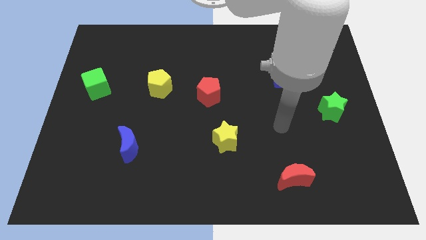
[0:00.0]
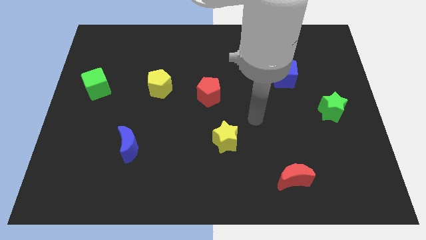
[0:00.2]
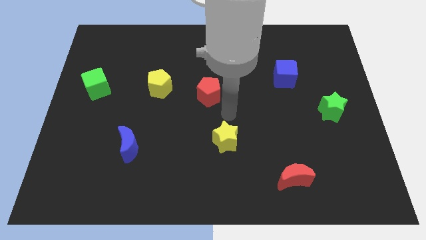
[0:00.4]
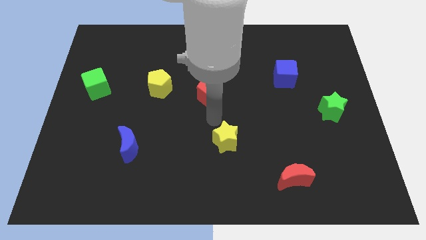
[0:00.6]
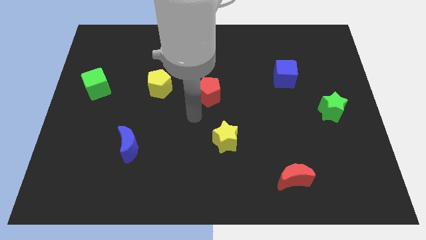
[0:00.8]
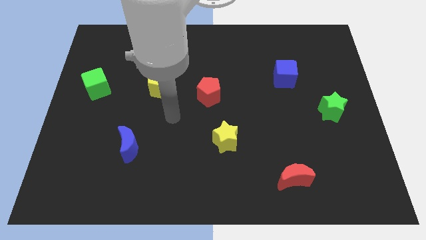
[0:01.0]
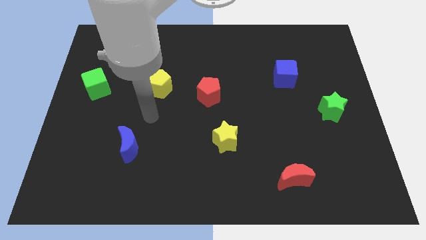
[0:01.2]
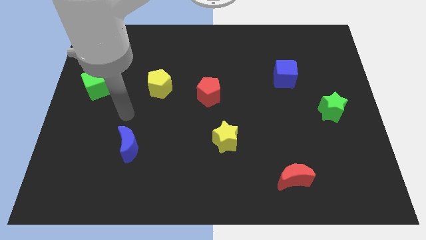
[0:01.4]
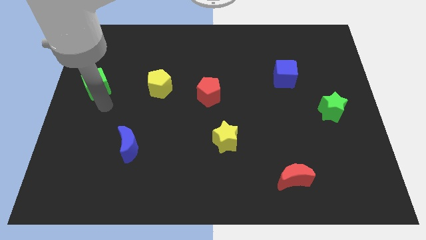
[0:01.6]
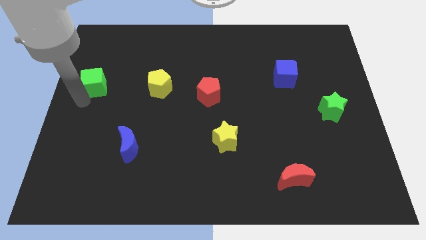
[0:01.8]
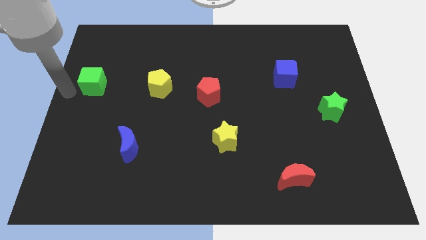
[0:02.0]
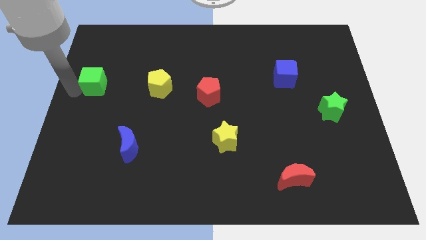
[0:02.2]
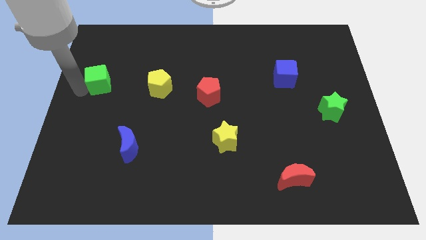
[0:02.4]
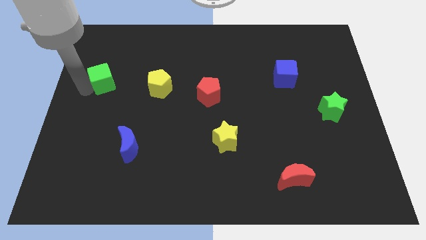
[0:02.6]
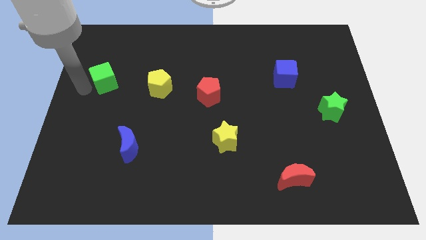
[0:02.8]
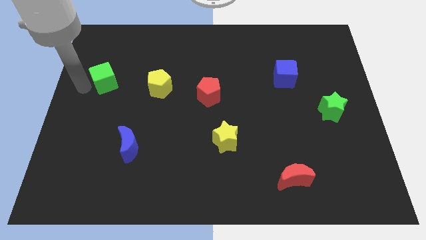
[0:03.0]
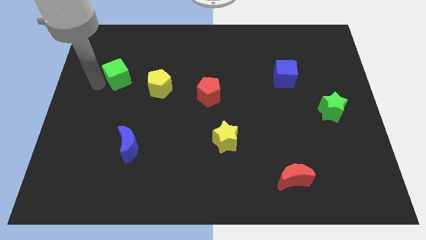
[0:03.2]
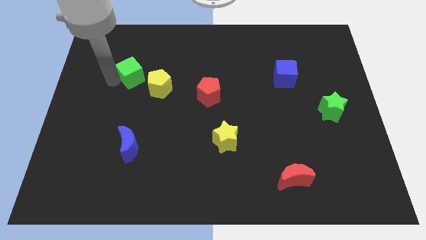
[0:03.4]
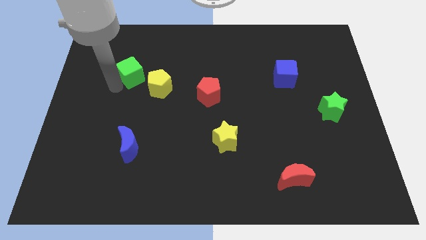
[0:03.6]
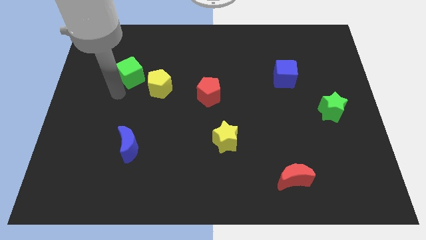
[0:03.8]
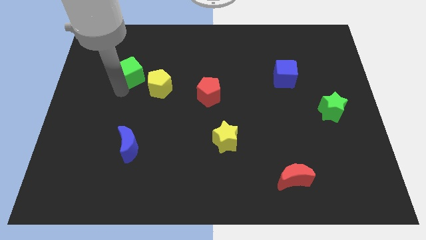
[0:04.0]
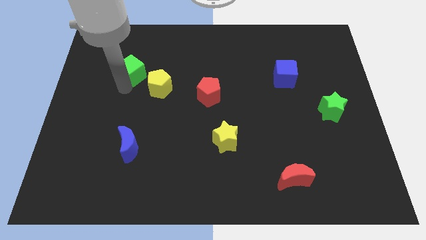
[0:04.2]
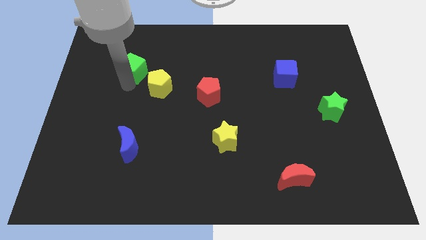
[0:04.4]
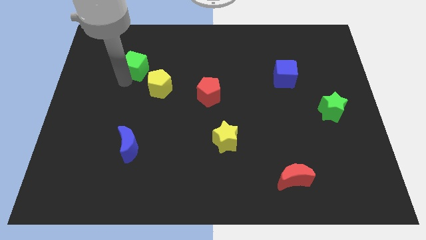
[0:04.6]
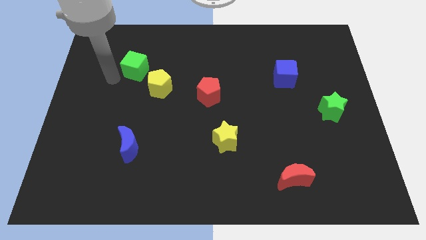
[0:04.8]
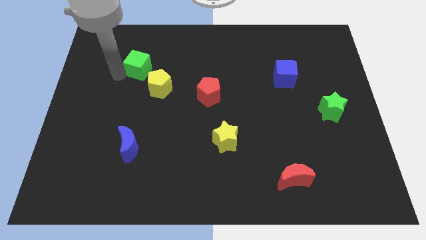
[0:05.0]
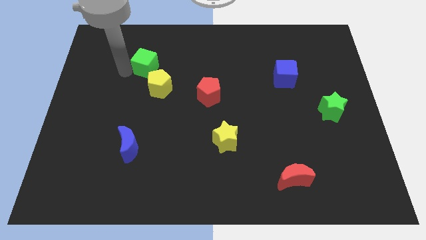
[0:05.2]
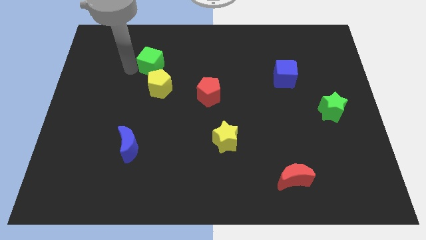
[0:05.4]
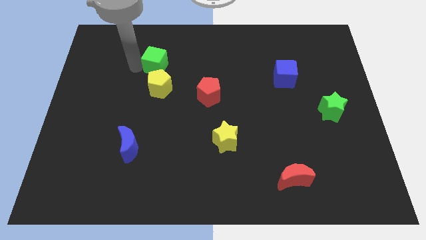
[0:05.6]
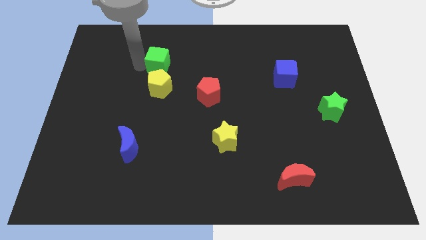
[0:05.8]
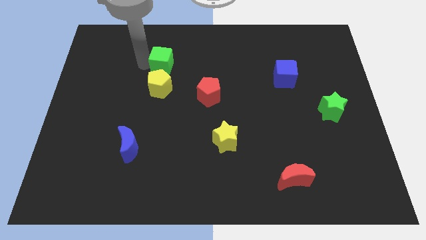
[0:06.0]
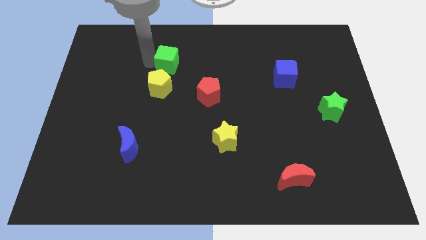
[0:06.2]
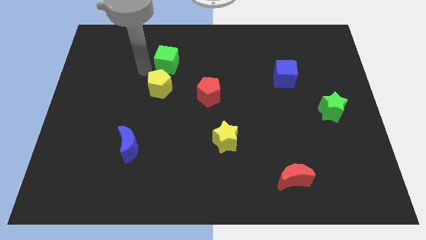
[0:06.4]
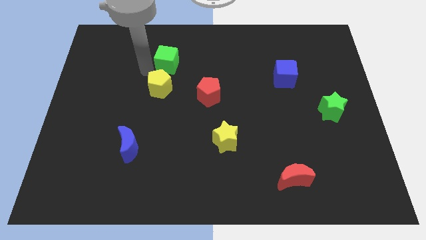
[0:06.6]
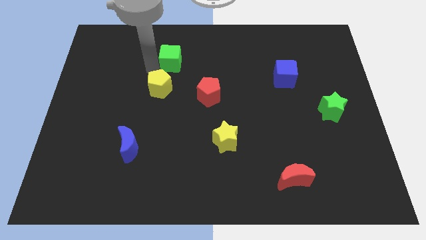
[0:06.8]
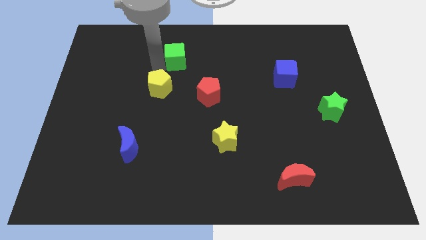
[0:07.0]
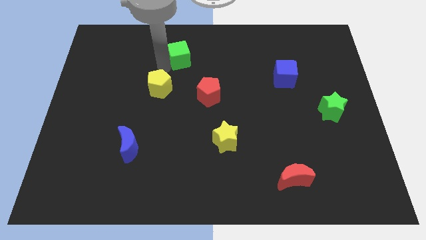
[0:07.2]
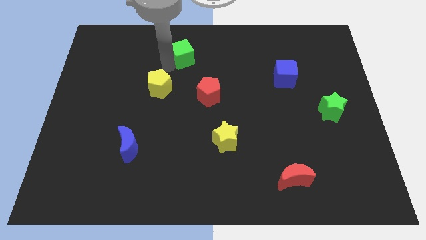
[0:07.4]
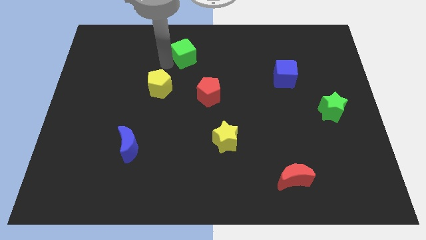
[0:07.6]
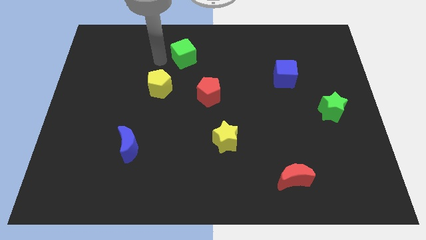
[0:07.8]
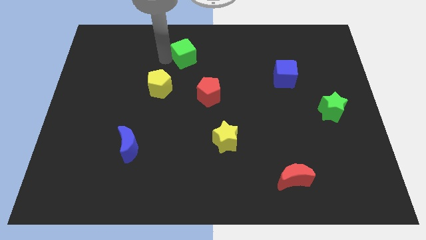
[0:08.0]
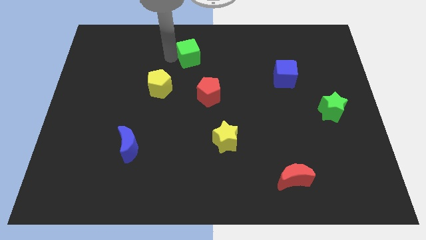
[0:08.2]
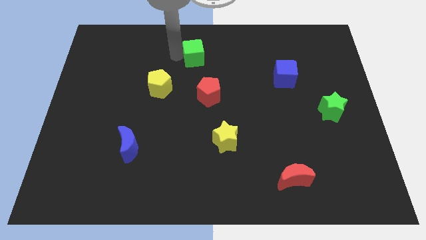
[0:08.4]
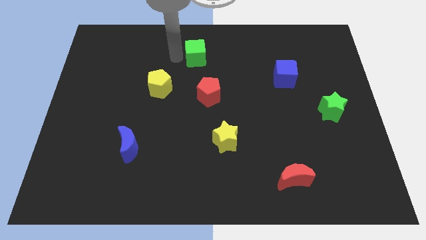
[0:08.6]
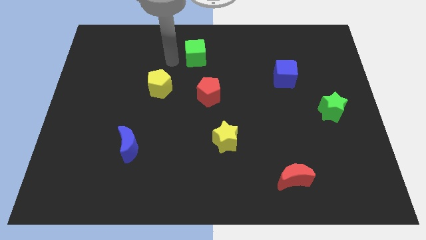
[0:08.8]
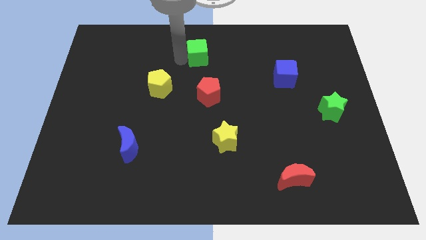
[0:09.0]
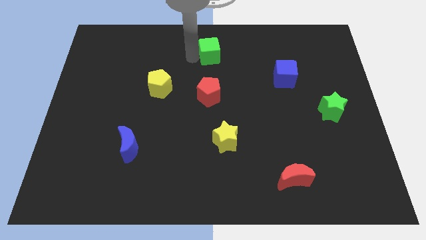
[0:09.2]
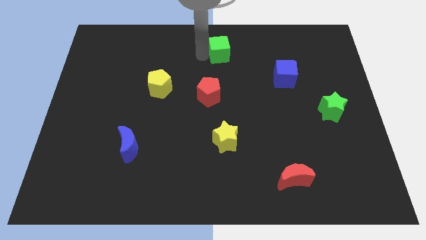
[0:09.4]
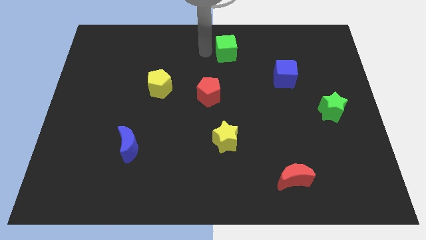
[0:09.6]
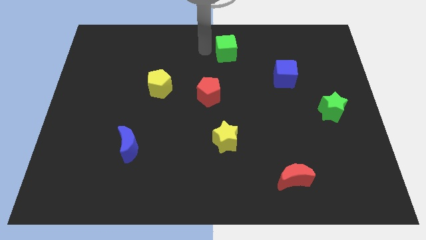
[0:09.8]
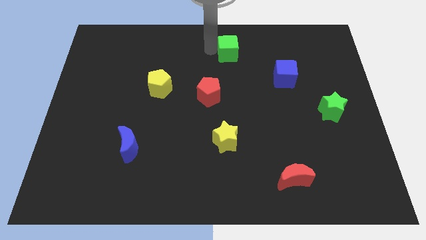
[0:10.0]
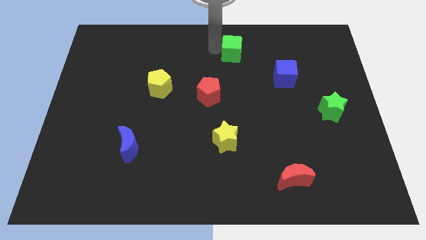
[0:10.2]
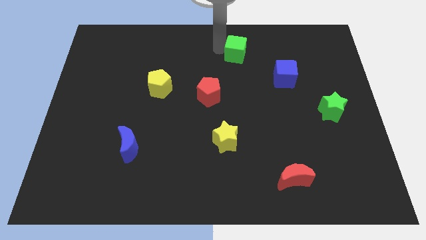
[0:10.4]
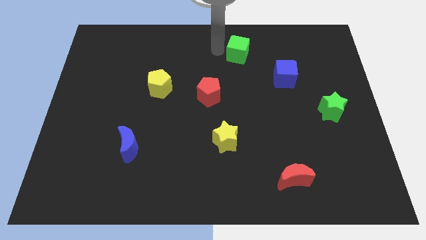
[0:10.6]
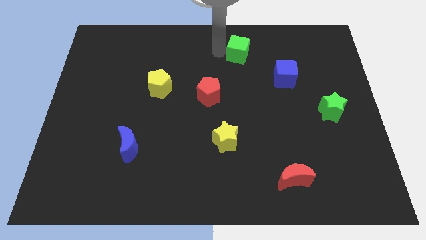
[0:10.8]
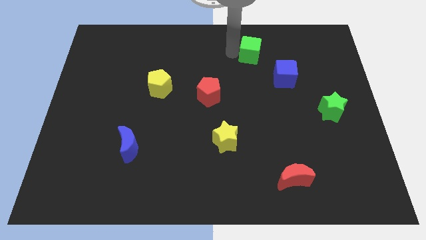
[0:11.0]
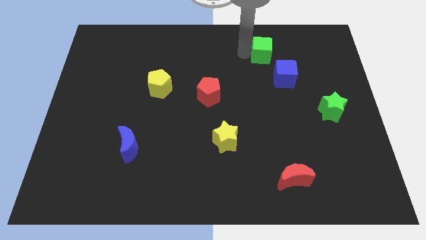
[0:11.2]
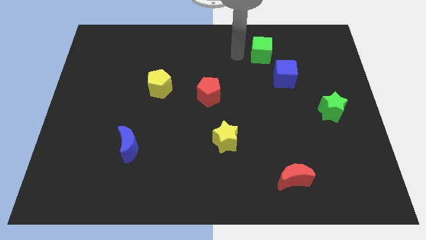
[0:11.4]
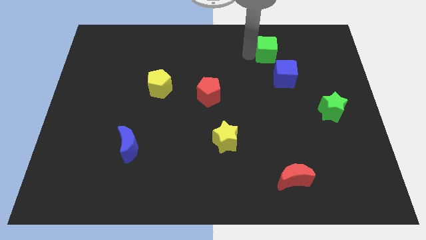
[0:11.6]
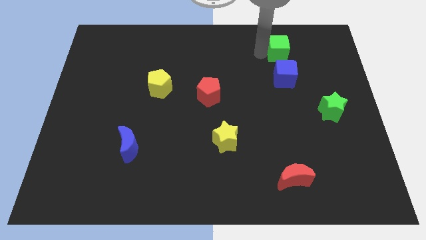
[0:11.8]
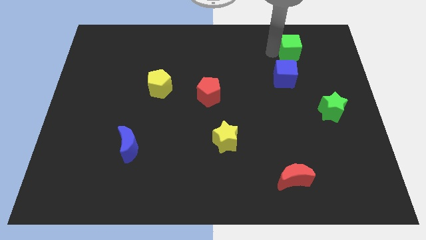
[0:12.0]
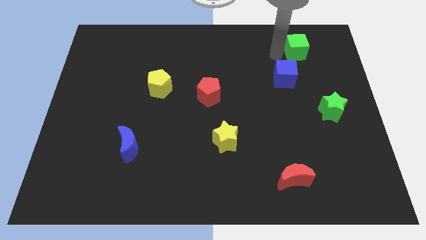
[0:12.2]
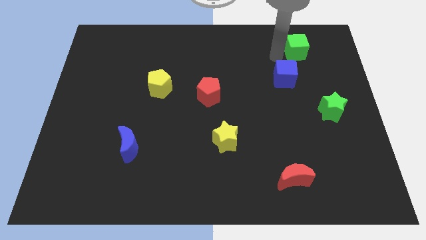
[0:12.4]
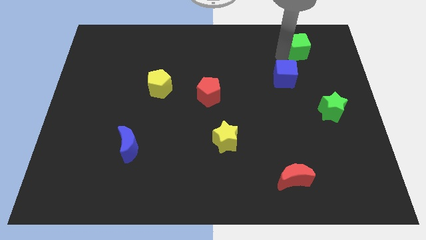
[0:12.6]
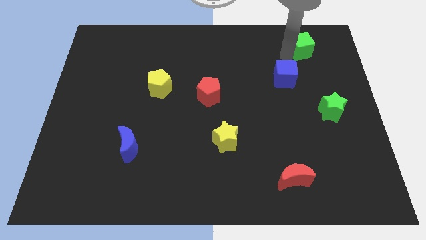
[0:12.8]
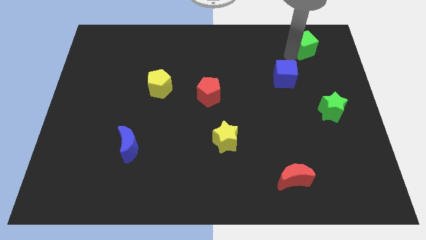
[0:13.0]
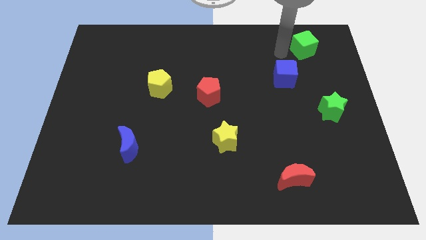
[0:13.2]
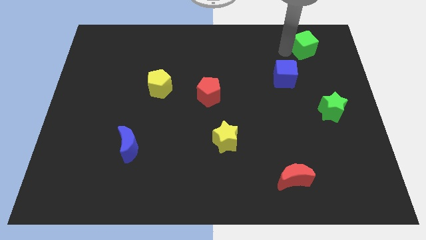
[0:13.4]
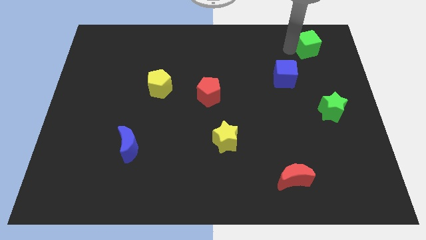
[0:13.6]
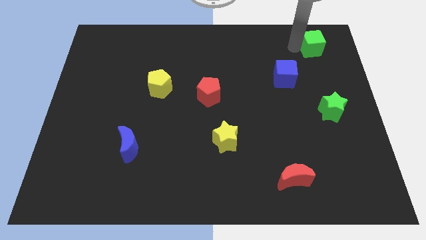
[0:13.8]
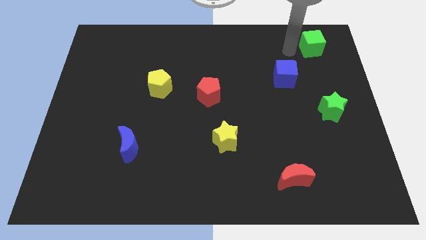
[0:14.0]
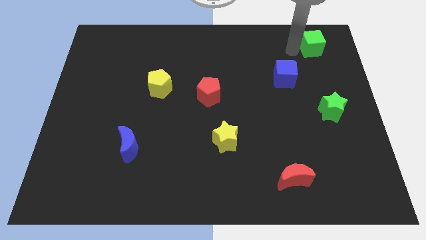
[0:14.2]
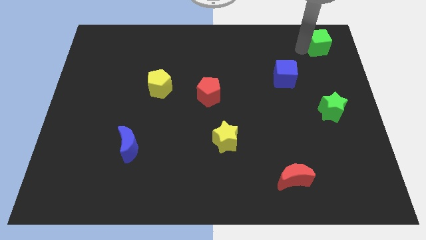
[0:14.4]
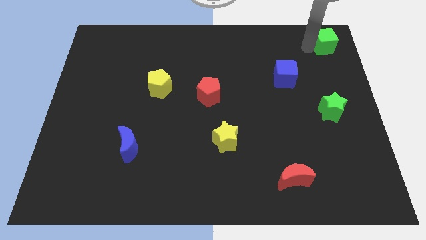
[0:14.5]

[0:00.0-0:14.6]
move the green cube to the top right
